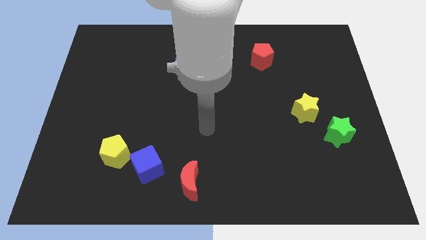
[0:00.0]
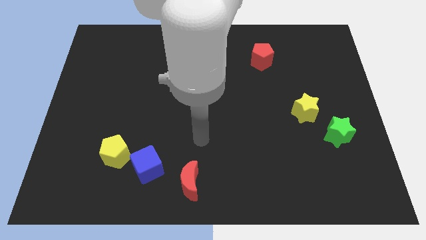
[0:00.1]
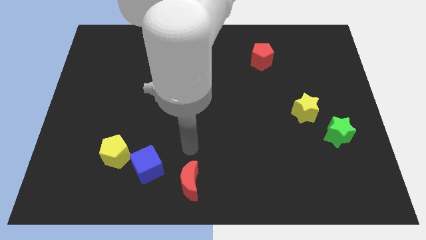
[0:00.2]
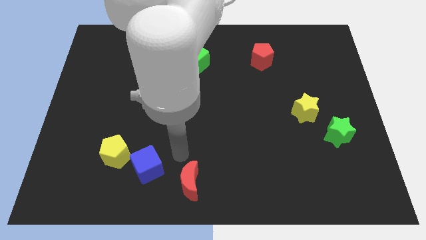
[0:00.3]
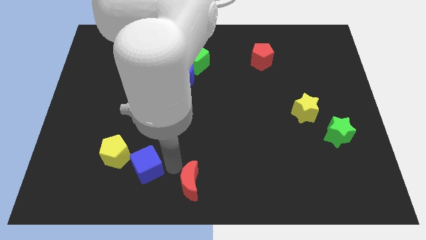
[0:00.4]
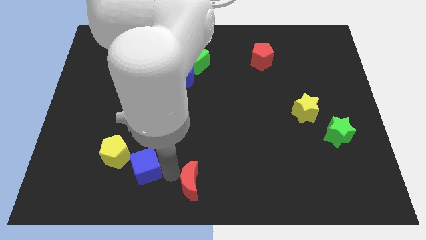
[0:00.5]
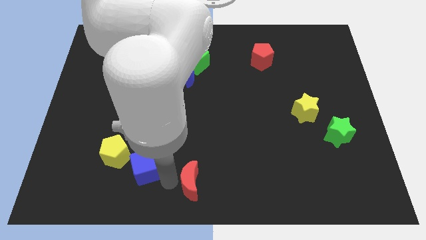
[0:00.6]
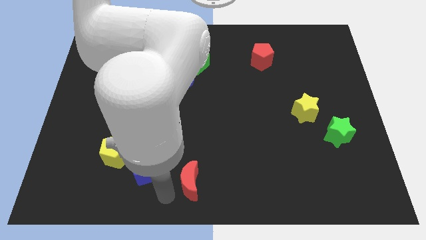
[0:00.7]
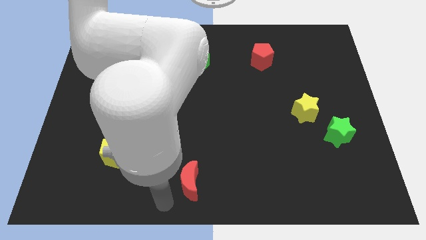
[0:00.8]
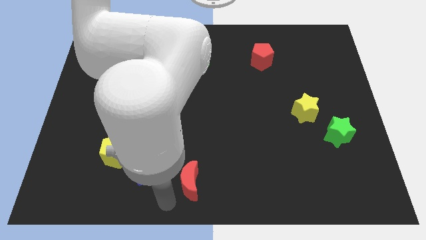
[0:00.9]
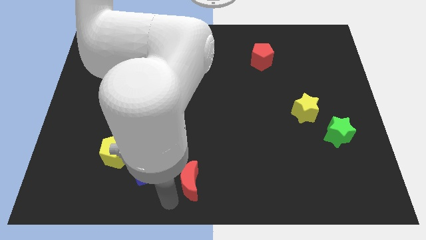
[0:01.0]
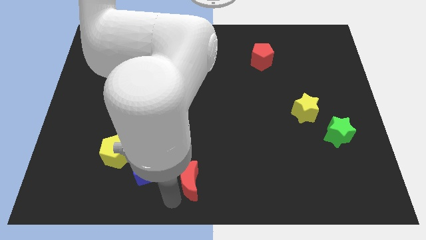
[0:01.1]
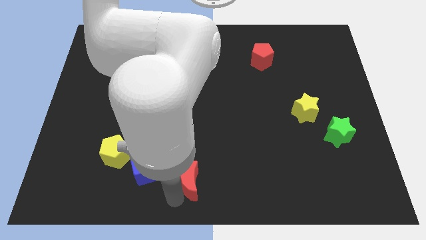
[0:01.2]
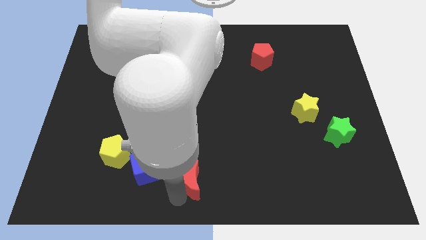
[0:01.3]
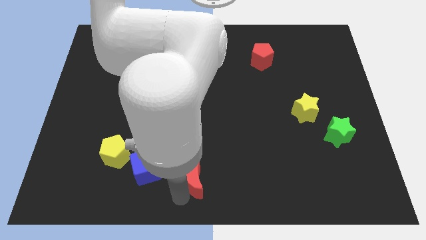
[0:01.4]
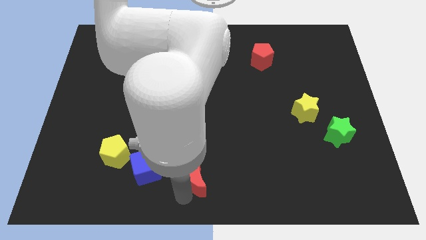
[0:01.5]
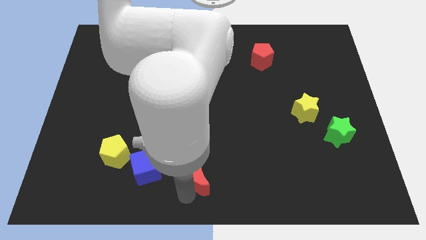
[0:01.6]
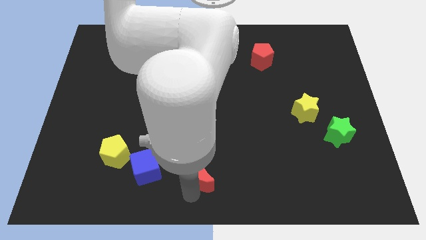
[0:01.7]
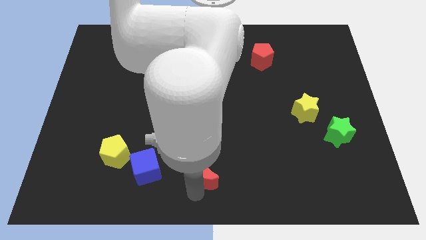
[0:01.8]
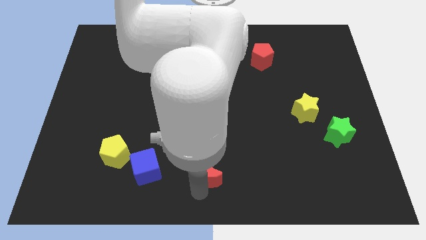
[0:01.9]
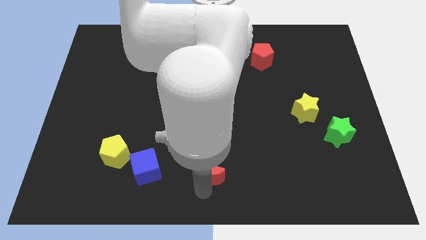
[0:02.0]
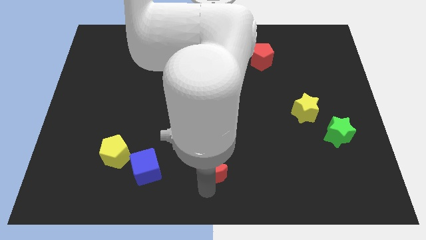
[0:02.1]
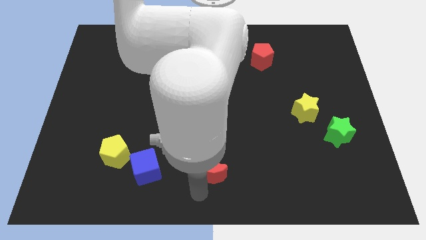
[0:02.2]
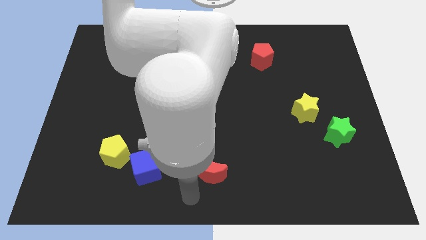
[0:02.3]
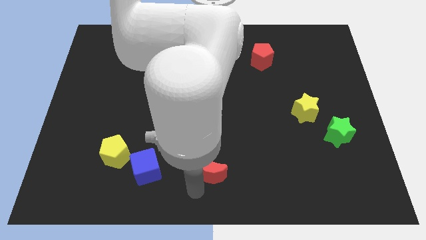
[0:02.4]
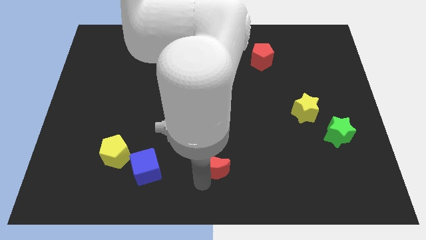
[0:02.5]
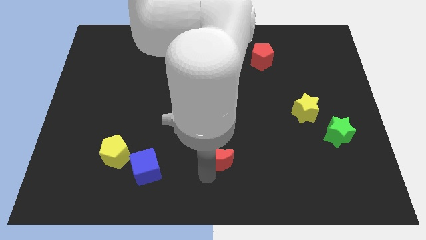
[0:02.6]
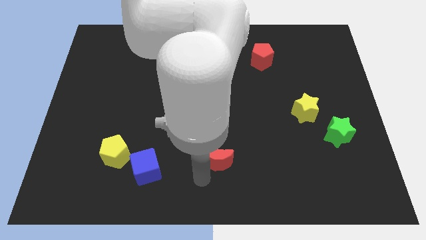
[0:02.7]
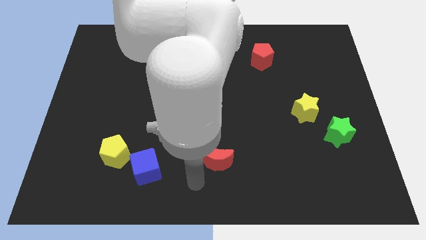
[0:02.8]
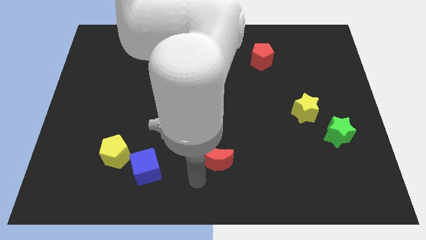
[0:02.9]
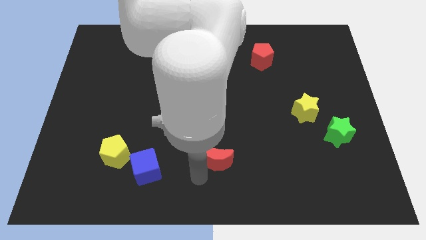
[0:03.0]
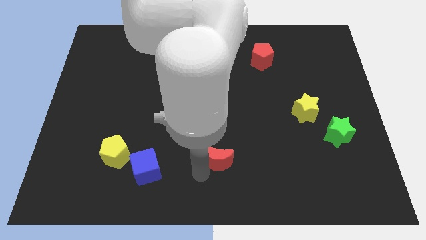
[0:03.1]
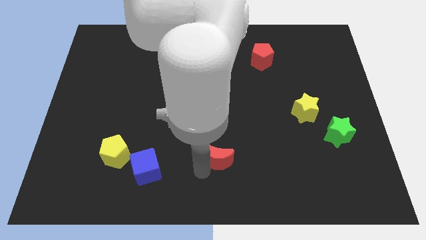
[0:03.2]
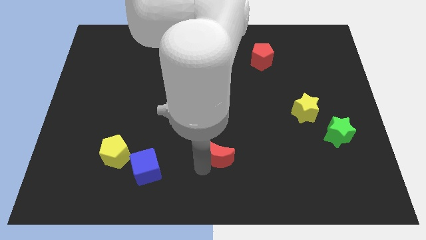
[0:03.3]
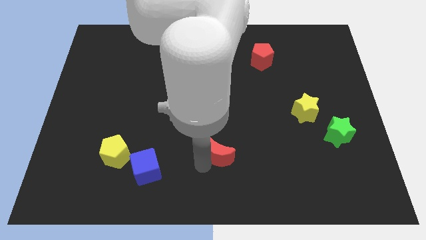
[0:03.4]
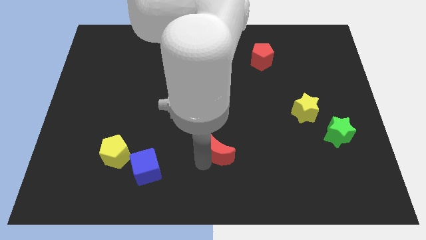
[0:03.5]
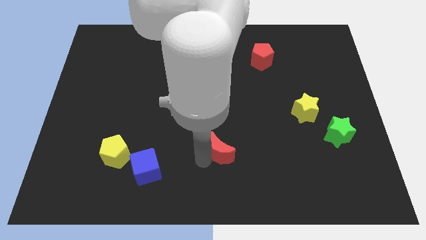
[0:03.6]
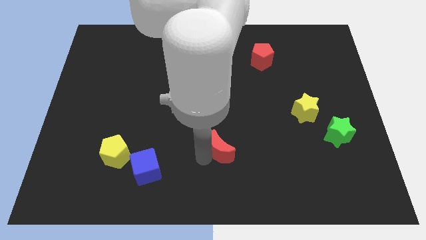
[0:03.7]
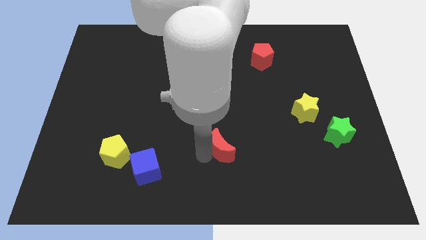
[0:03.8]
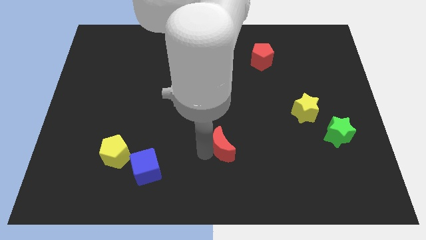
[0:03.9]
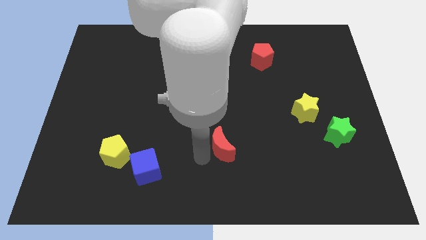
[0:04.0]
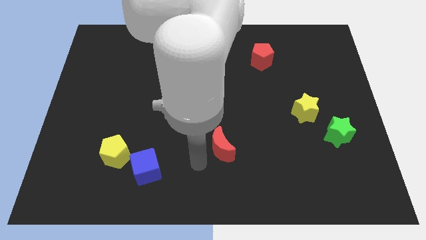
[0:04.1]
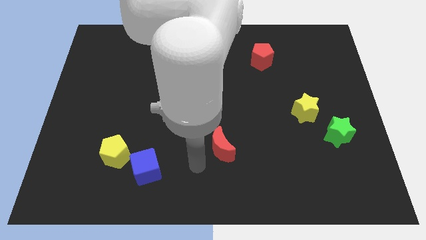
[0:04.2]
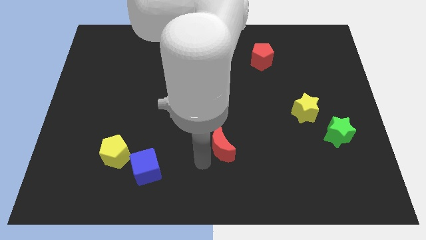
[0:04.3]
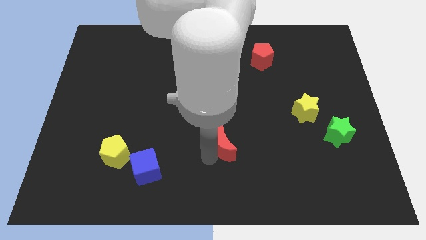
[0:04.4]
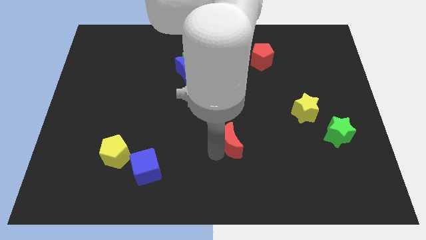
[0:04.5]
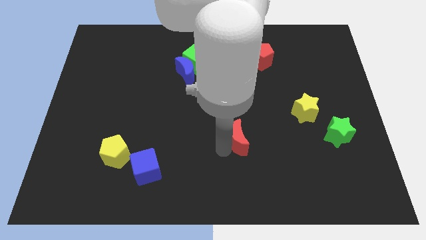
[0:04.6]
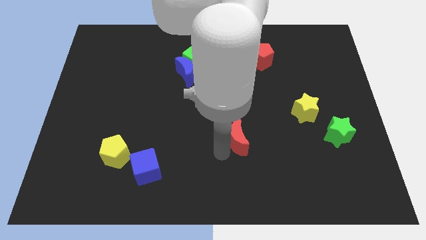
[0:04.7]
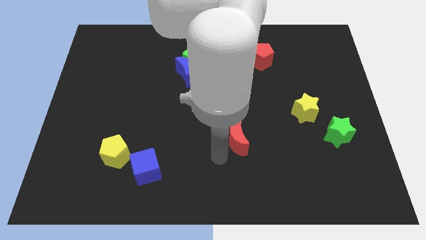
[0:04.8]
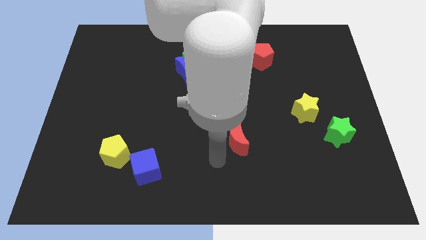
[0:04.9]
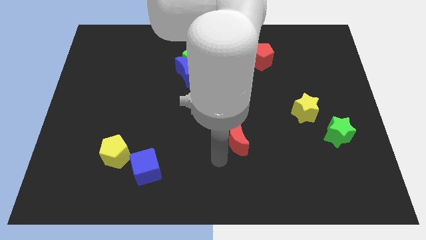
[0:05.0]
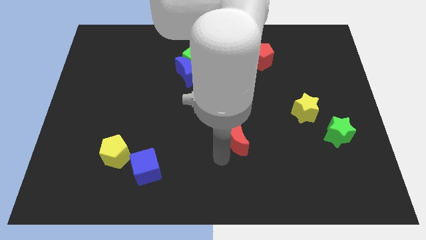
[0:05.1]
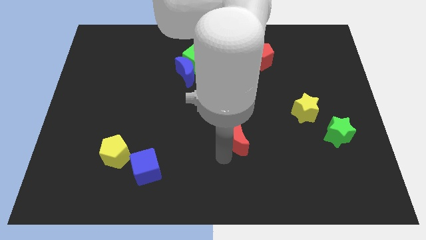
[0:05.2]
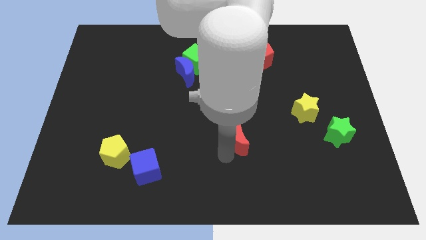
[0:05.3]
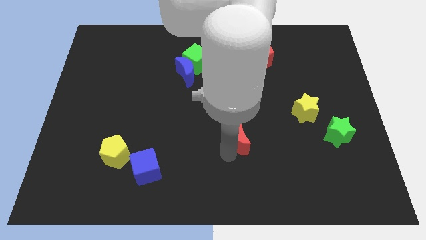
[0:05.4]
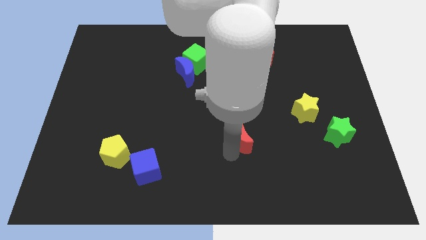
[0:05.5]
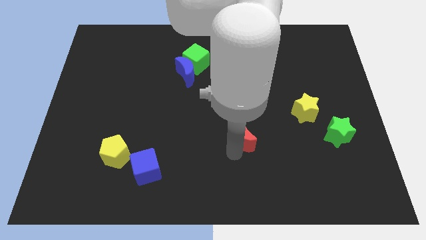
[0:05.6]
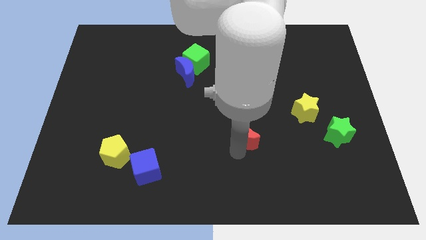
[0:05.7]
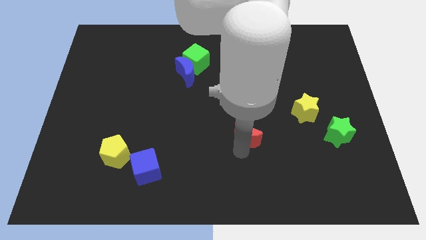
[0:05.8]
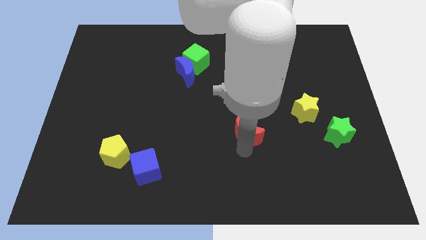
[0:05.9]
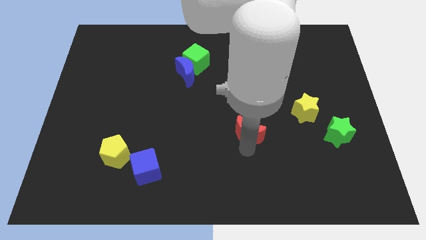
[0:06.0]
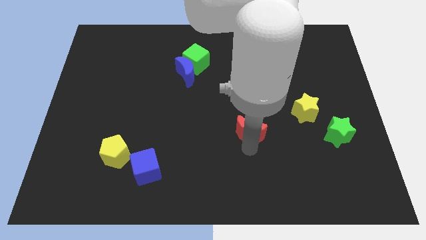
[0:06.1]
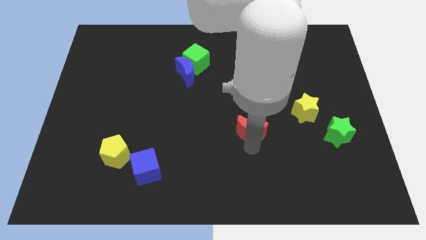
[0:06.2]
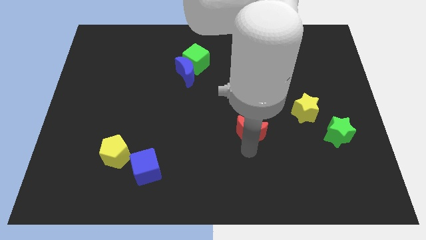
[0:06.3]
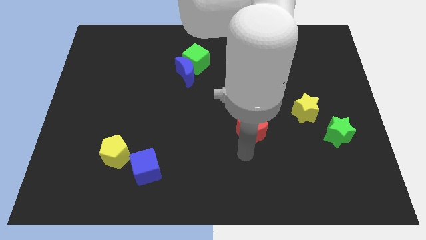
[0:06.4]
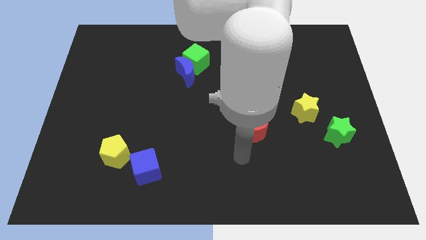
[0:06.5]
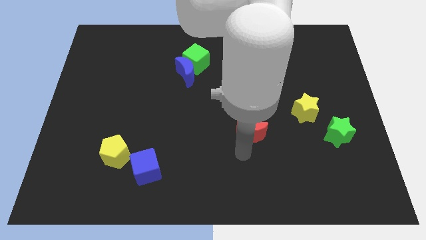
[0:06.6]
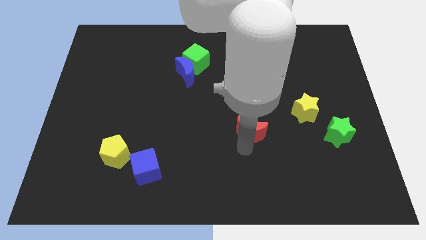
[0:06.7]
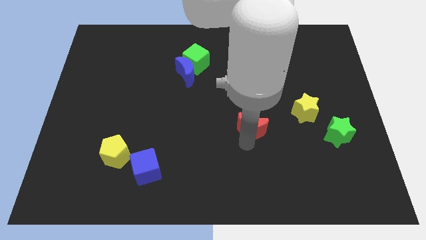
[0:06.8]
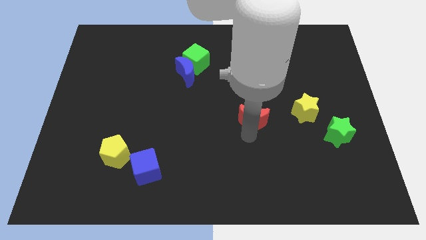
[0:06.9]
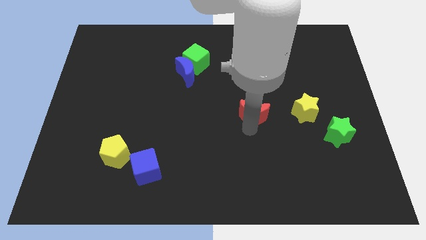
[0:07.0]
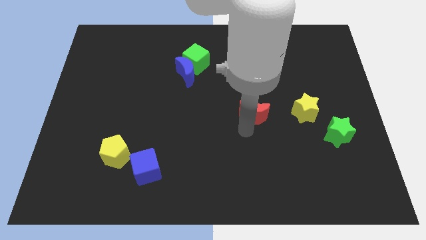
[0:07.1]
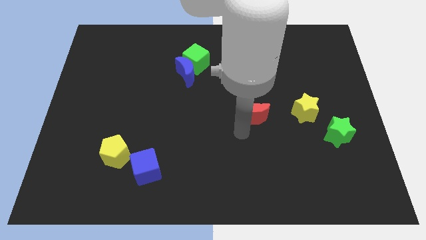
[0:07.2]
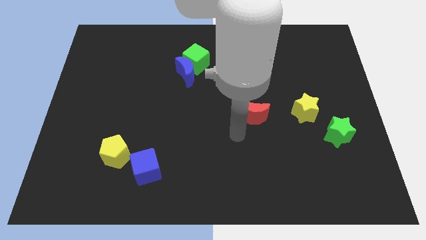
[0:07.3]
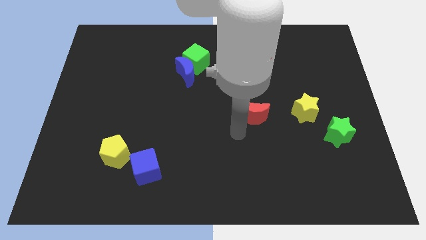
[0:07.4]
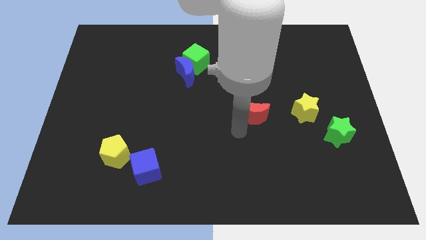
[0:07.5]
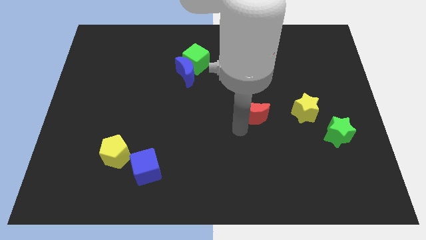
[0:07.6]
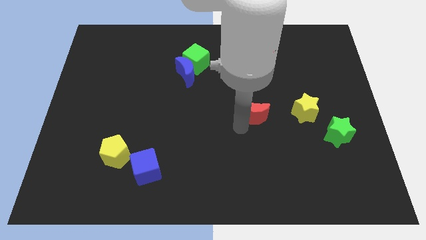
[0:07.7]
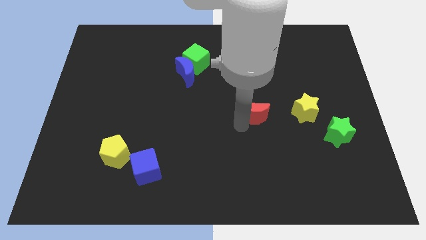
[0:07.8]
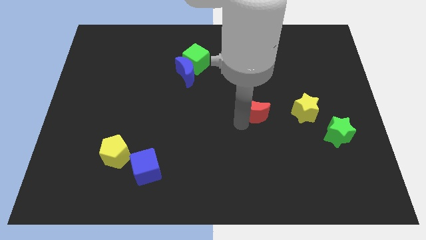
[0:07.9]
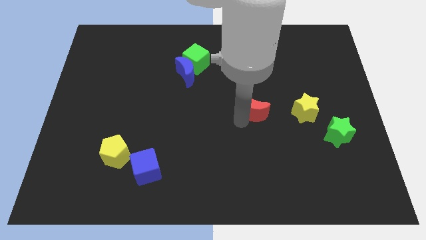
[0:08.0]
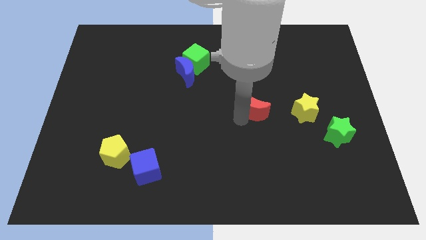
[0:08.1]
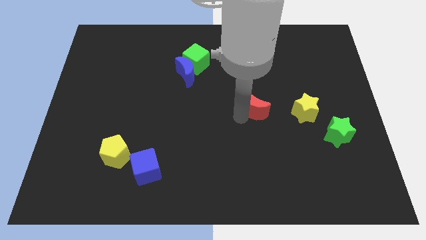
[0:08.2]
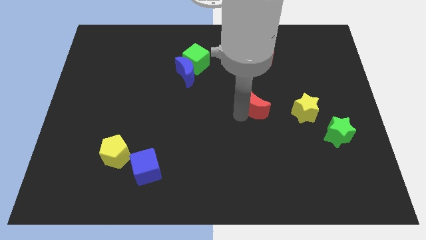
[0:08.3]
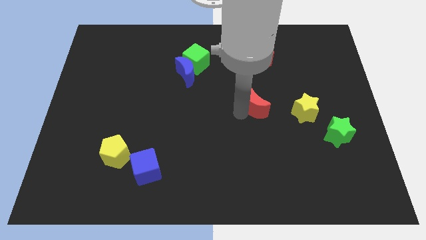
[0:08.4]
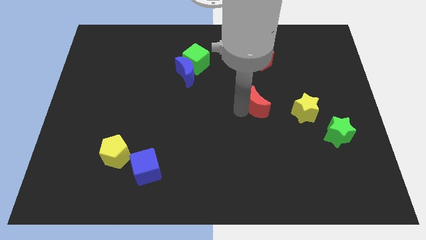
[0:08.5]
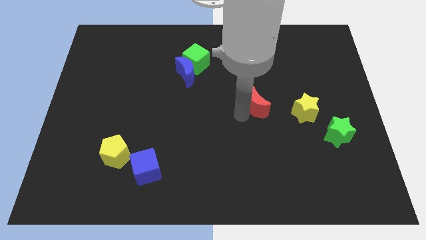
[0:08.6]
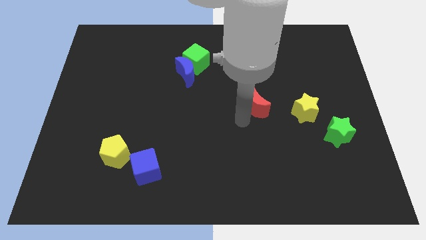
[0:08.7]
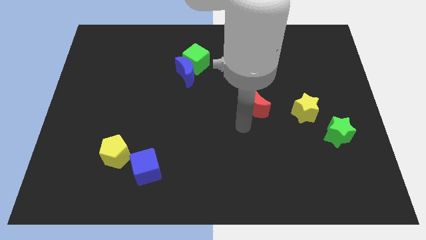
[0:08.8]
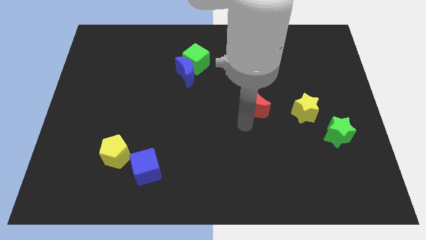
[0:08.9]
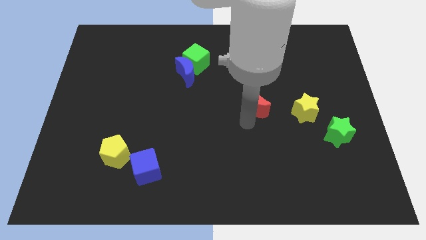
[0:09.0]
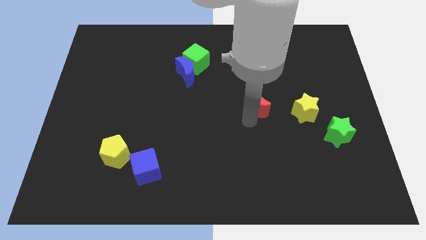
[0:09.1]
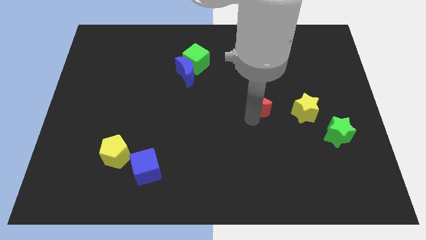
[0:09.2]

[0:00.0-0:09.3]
put the red moon to the bottom side of the red pentagon
